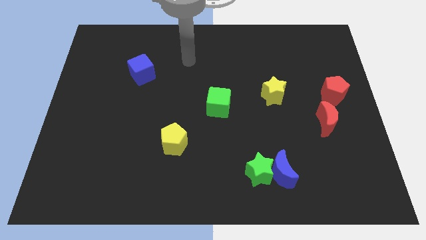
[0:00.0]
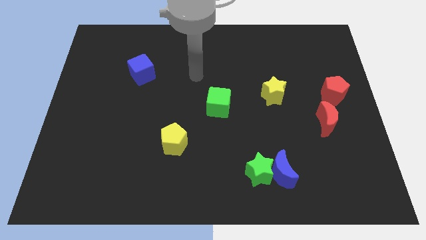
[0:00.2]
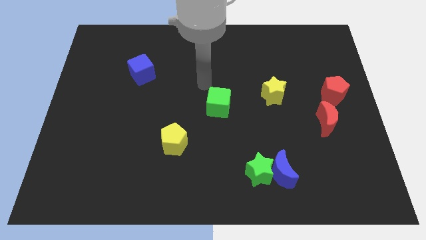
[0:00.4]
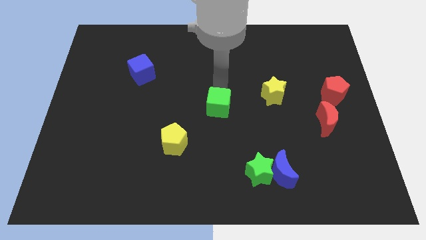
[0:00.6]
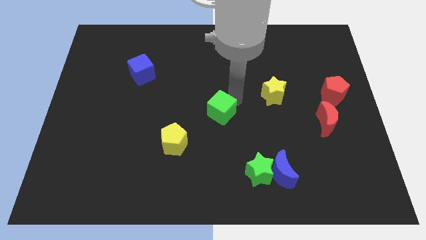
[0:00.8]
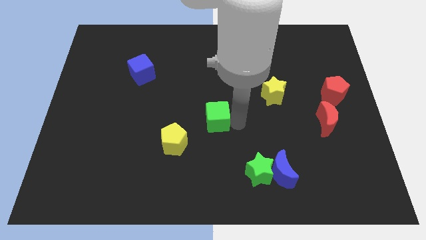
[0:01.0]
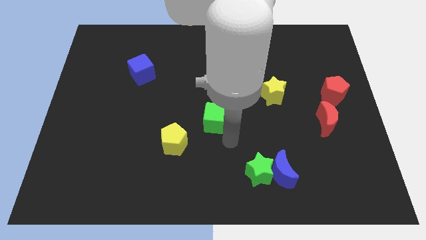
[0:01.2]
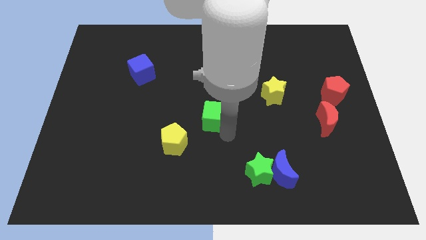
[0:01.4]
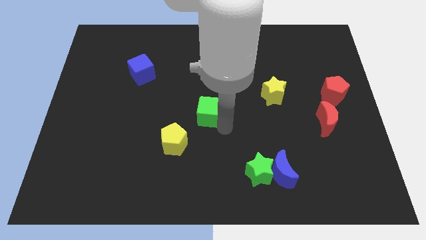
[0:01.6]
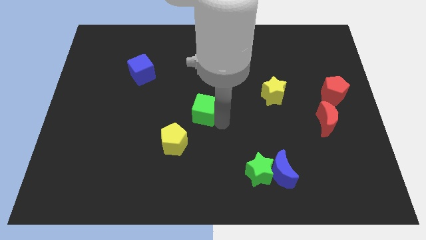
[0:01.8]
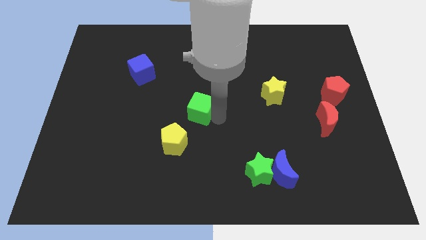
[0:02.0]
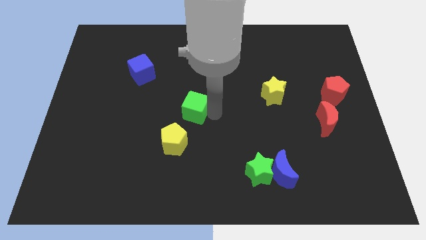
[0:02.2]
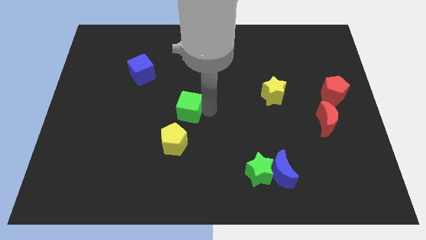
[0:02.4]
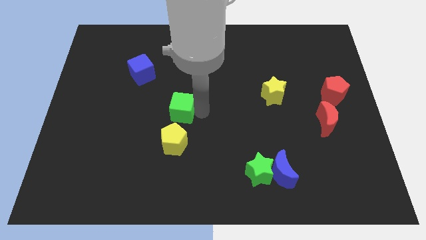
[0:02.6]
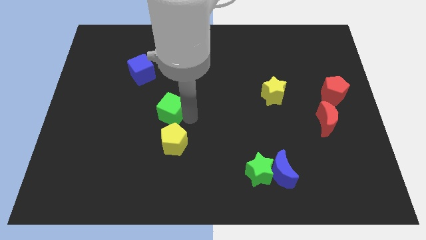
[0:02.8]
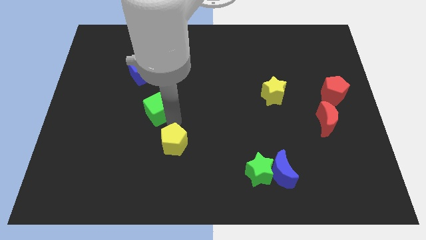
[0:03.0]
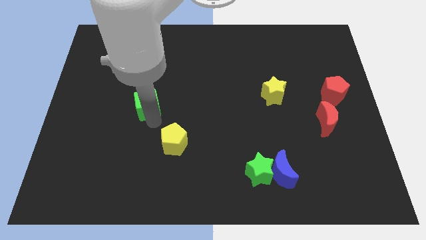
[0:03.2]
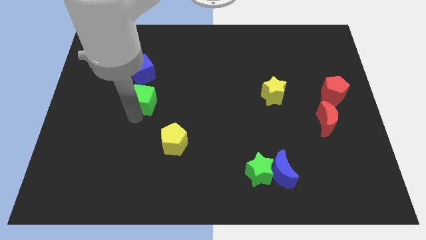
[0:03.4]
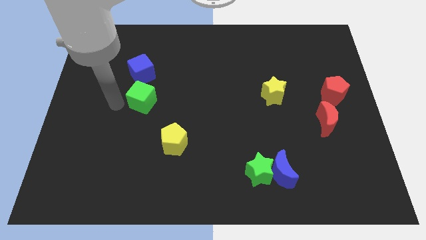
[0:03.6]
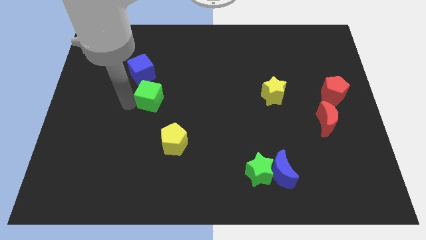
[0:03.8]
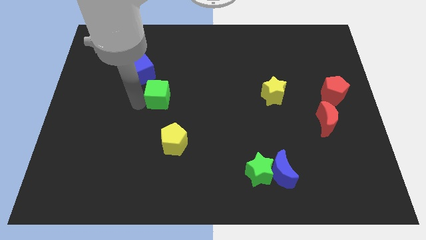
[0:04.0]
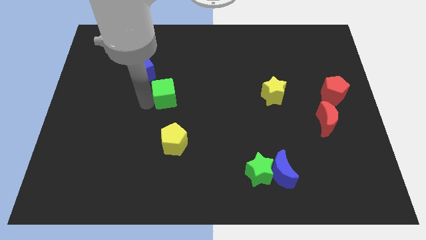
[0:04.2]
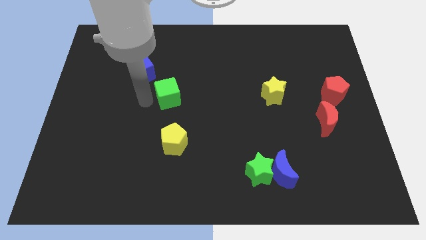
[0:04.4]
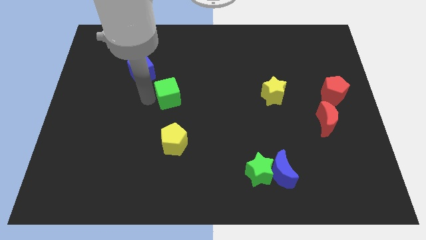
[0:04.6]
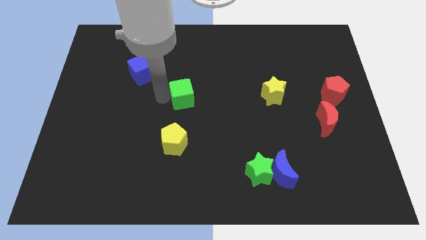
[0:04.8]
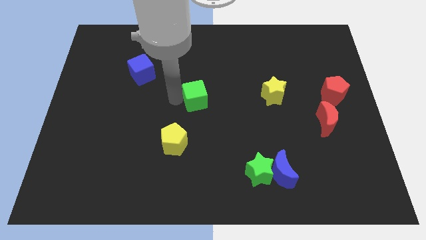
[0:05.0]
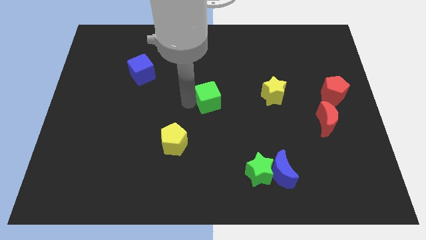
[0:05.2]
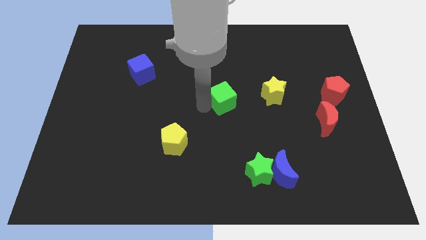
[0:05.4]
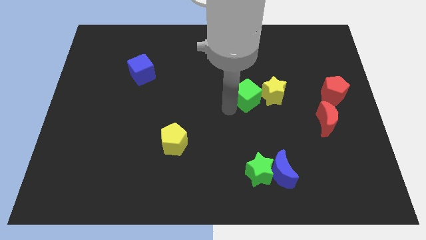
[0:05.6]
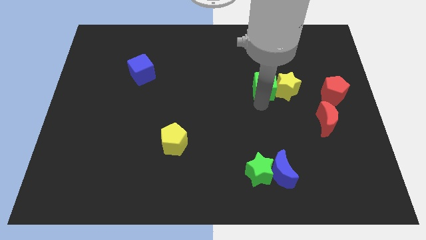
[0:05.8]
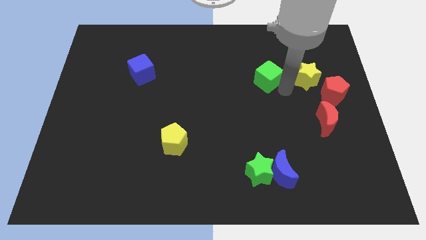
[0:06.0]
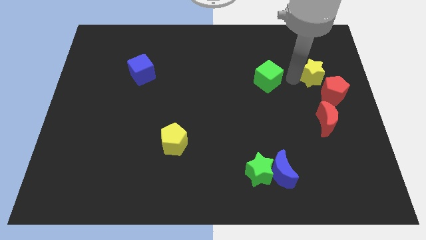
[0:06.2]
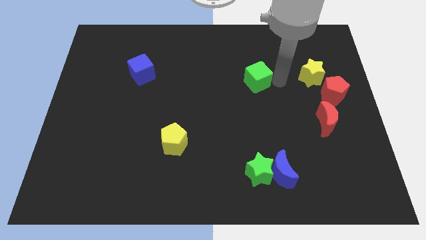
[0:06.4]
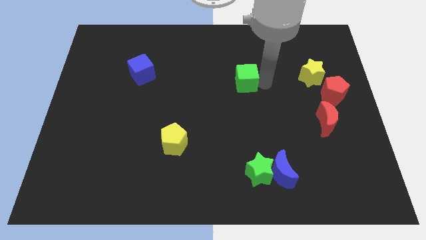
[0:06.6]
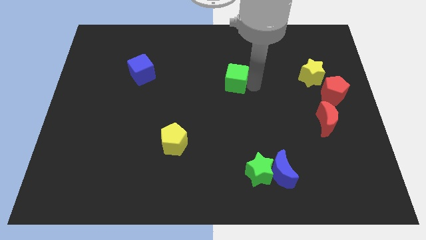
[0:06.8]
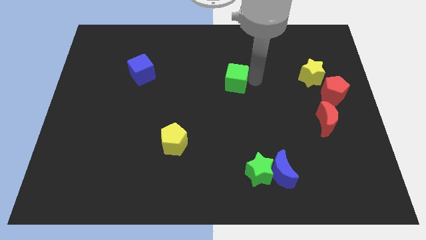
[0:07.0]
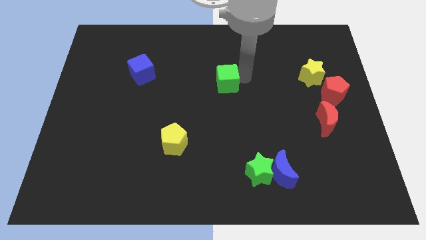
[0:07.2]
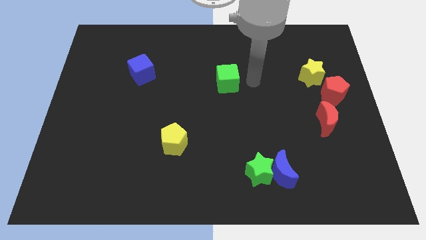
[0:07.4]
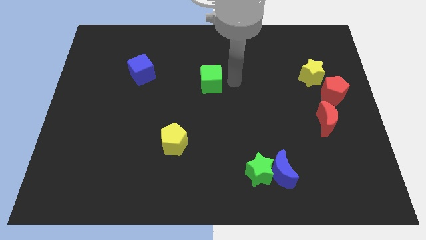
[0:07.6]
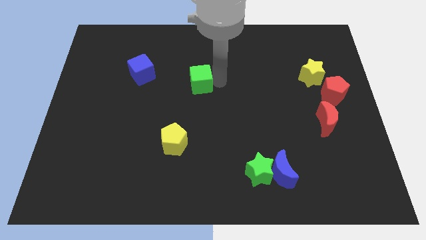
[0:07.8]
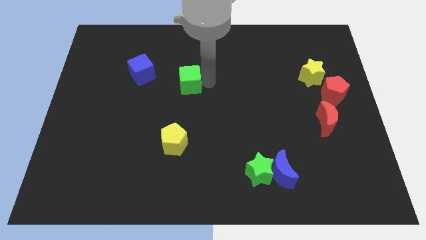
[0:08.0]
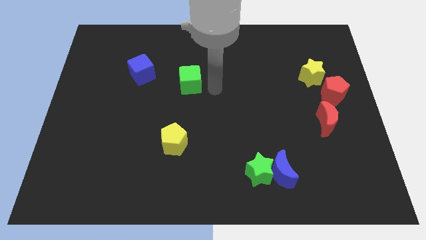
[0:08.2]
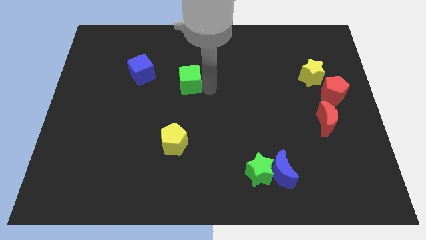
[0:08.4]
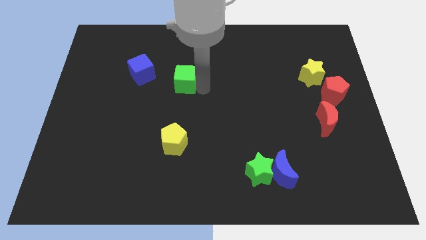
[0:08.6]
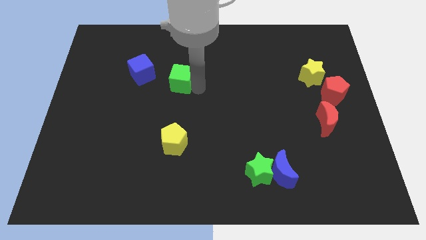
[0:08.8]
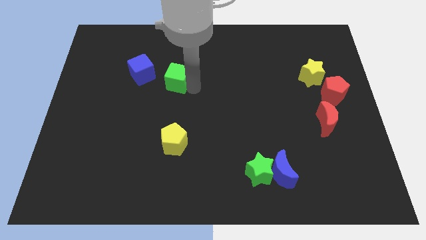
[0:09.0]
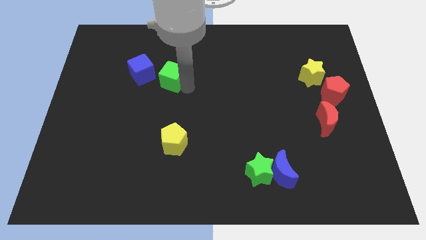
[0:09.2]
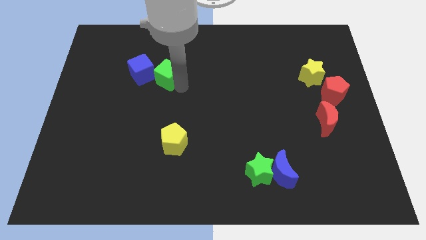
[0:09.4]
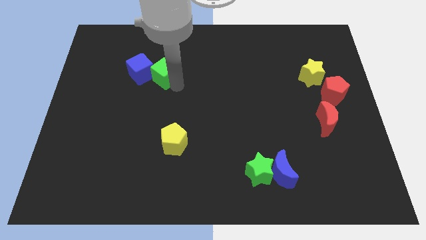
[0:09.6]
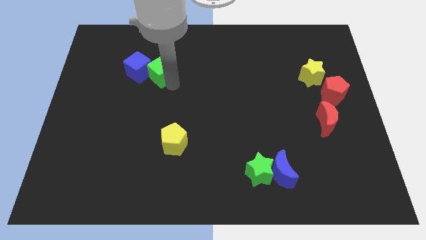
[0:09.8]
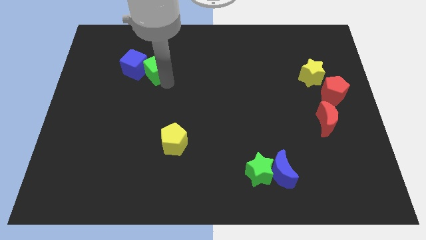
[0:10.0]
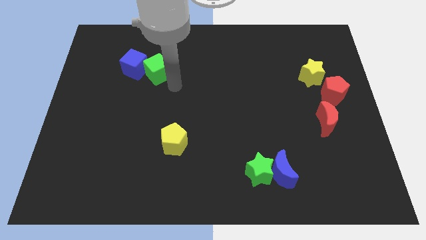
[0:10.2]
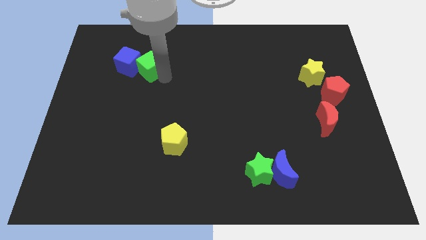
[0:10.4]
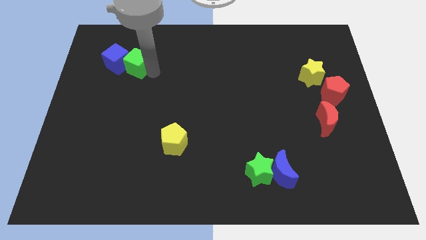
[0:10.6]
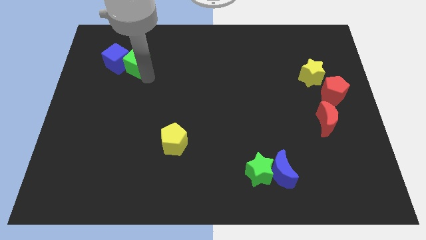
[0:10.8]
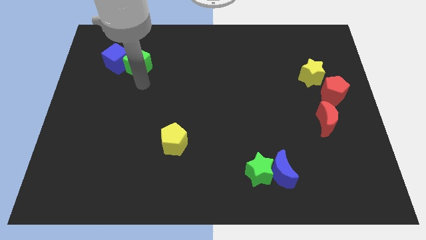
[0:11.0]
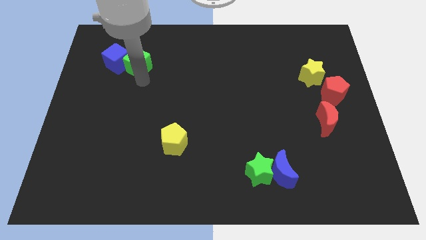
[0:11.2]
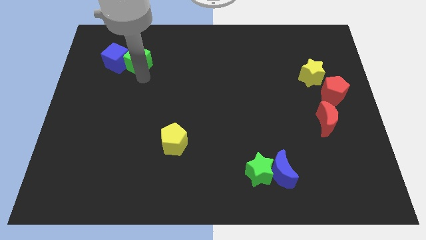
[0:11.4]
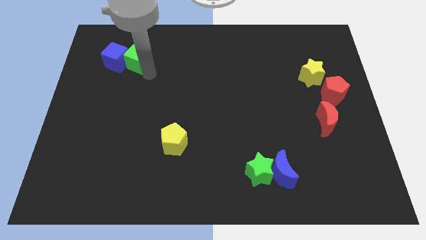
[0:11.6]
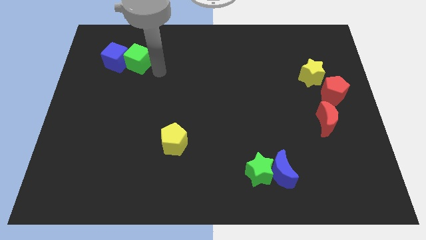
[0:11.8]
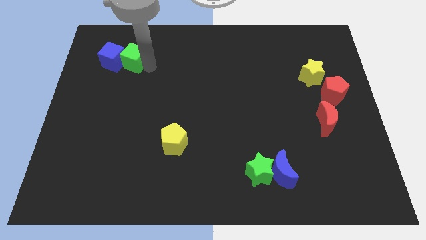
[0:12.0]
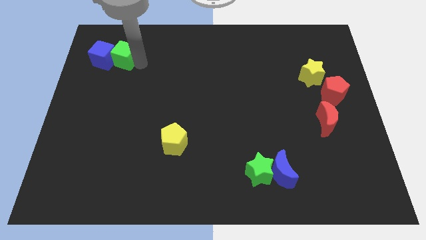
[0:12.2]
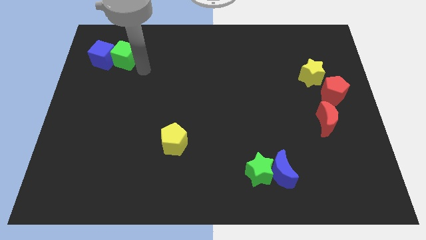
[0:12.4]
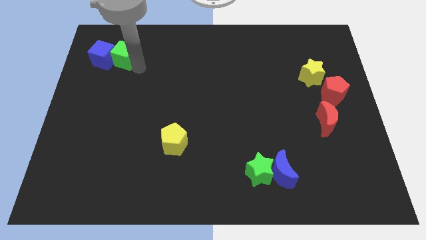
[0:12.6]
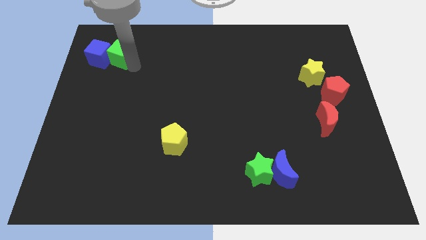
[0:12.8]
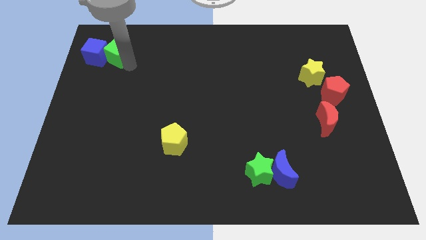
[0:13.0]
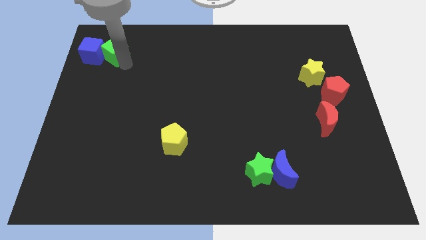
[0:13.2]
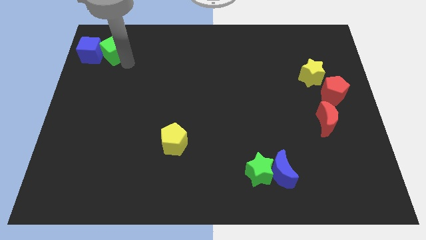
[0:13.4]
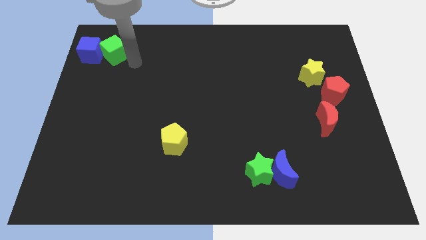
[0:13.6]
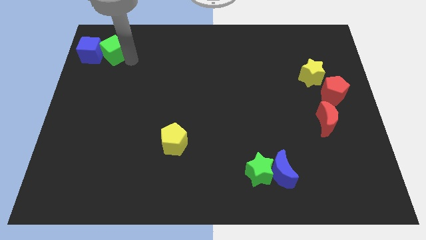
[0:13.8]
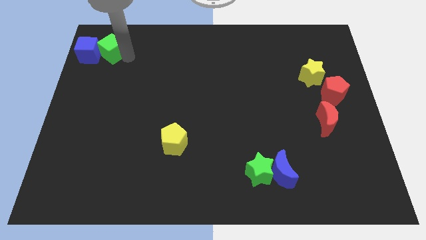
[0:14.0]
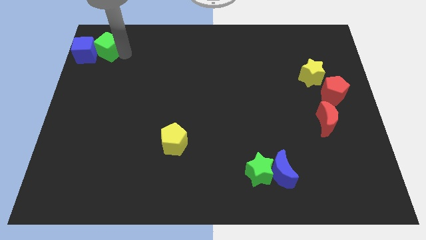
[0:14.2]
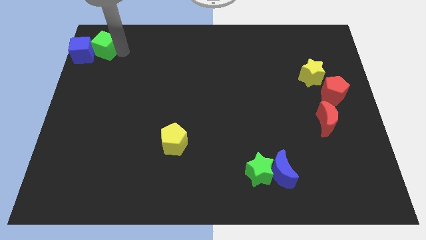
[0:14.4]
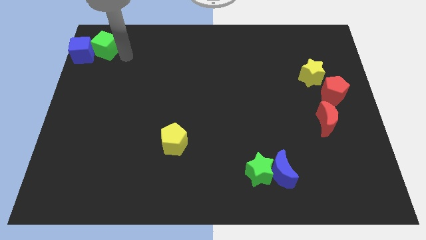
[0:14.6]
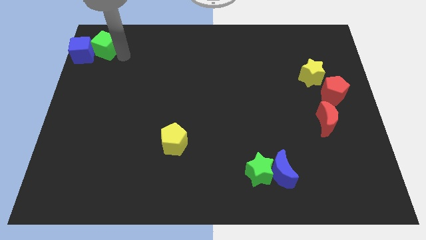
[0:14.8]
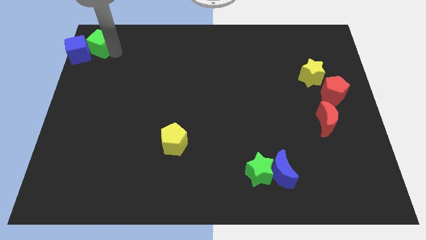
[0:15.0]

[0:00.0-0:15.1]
put the green cube to the top left corner
